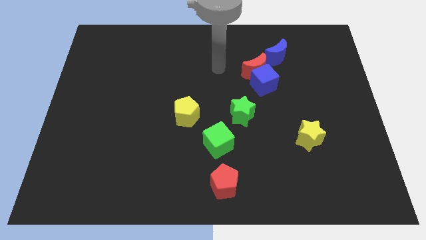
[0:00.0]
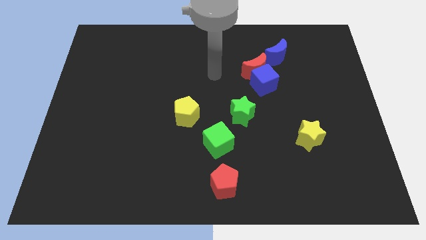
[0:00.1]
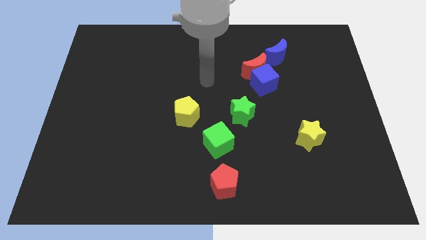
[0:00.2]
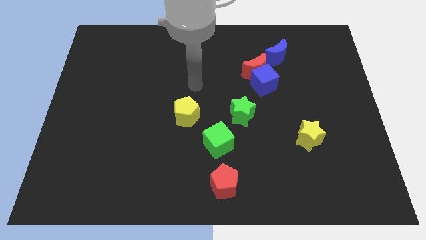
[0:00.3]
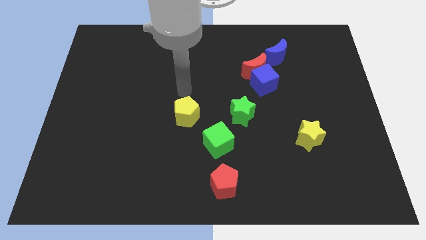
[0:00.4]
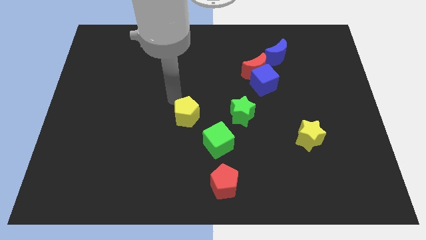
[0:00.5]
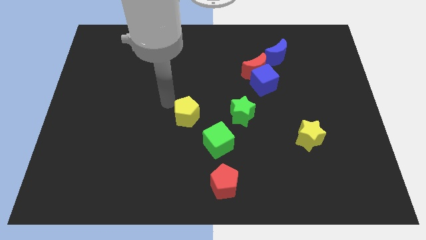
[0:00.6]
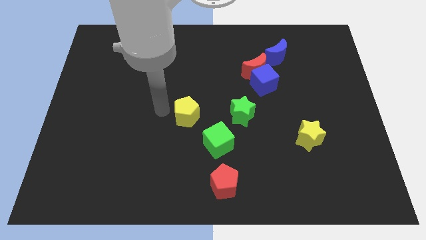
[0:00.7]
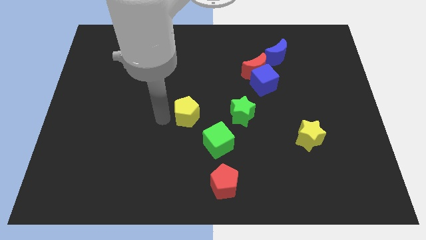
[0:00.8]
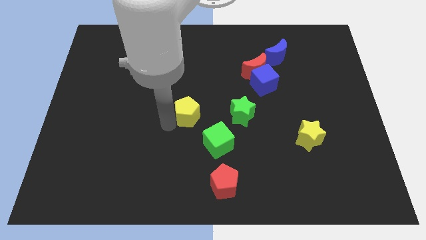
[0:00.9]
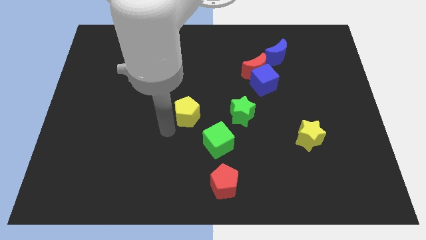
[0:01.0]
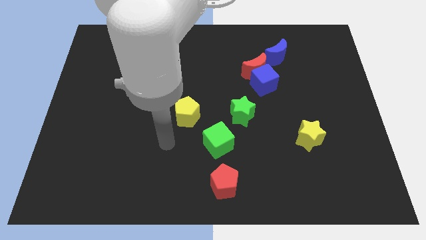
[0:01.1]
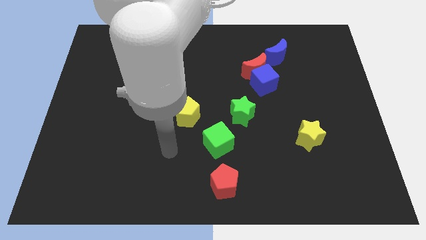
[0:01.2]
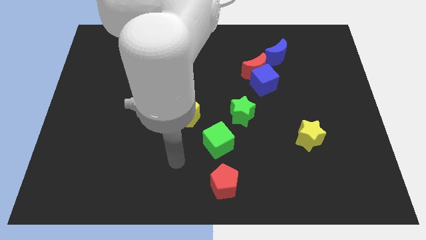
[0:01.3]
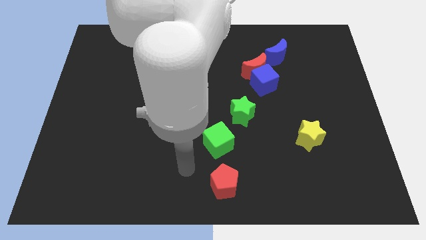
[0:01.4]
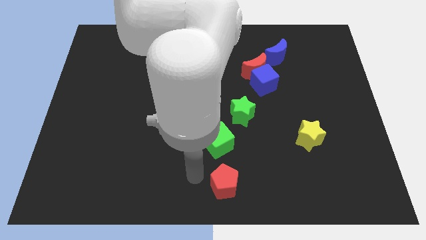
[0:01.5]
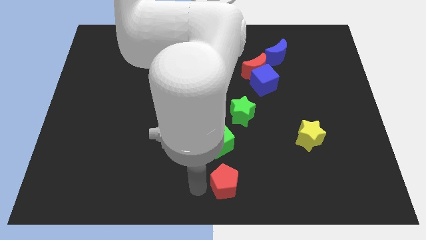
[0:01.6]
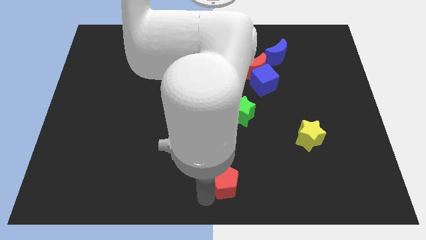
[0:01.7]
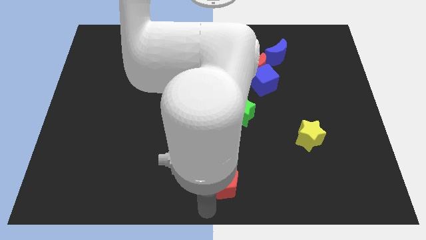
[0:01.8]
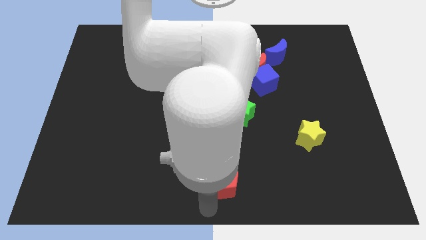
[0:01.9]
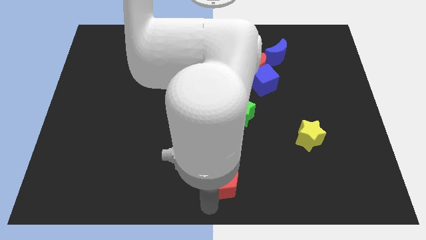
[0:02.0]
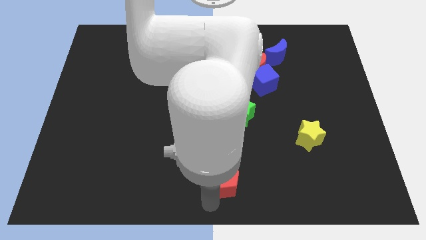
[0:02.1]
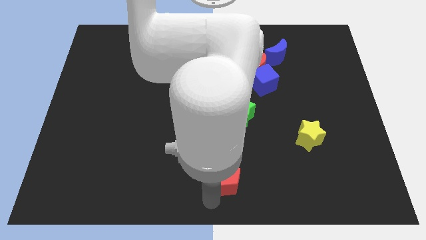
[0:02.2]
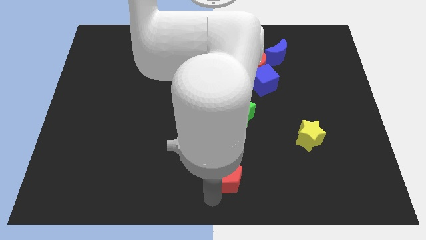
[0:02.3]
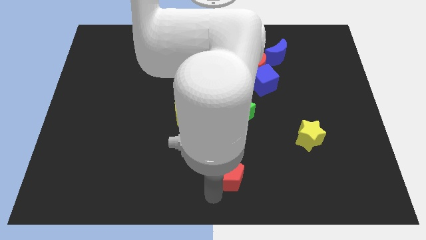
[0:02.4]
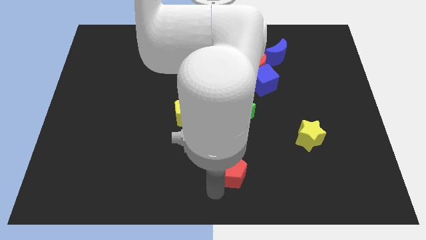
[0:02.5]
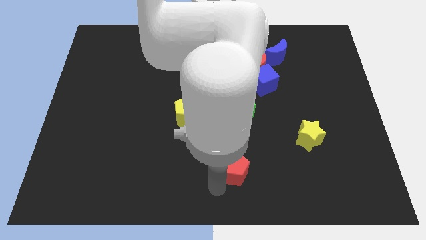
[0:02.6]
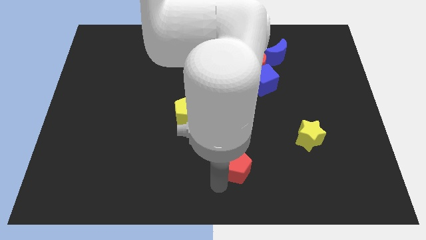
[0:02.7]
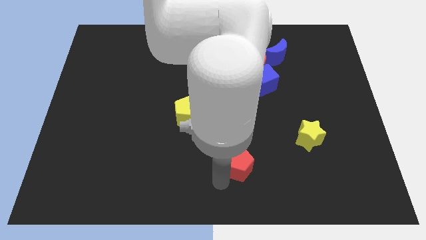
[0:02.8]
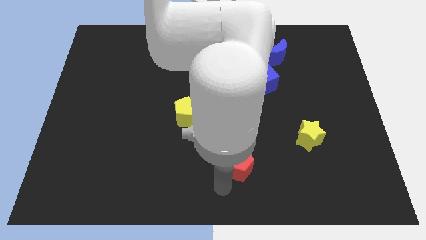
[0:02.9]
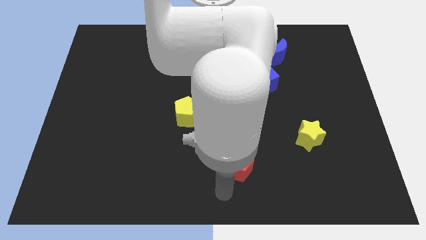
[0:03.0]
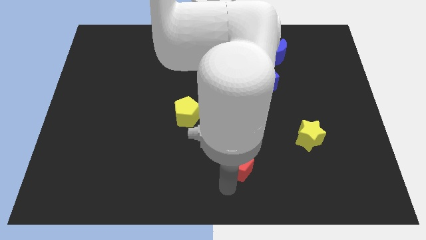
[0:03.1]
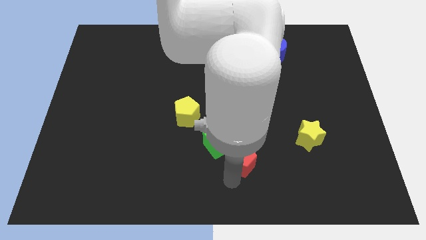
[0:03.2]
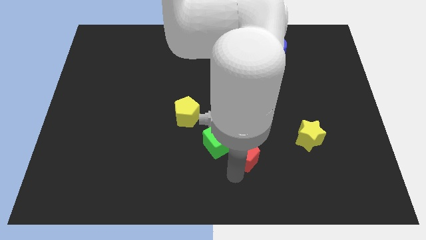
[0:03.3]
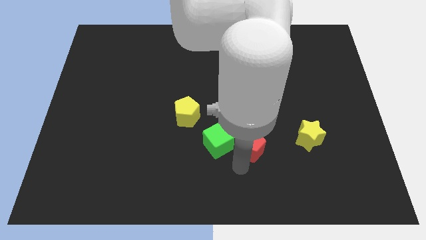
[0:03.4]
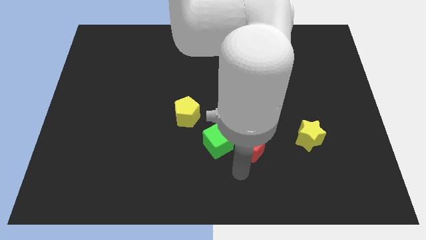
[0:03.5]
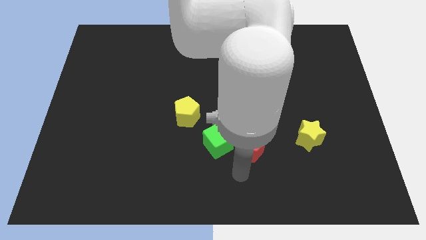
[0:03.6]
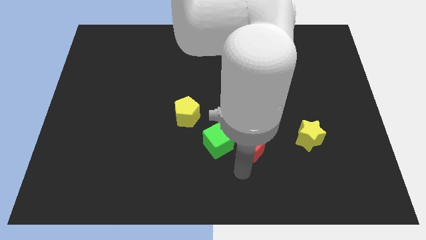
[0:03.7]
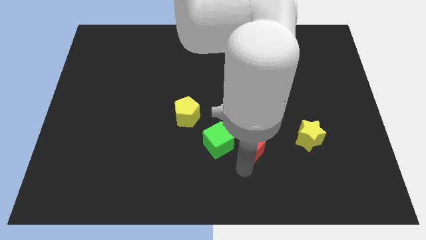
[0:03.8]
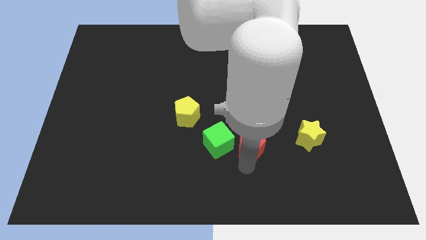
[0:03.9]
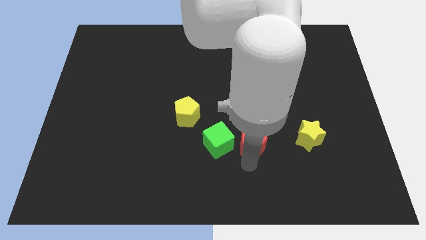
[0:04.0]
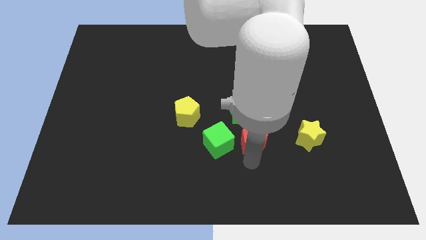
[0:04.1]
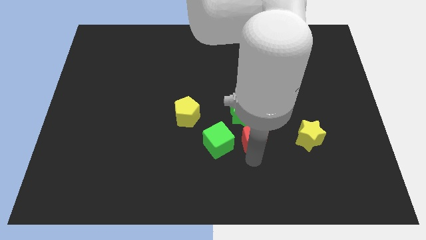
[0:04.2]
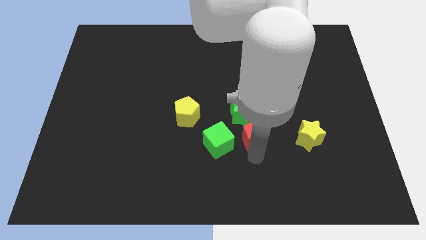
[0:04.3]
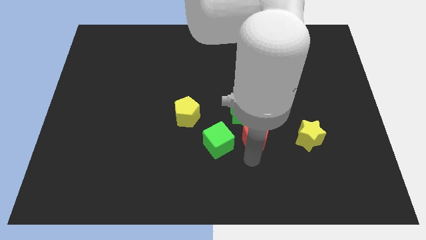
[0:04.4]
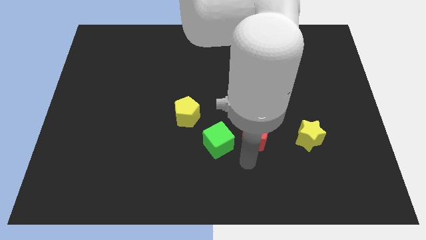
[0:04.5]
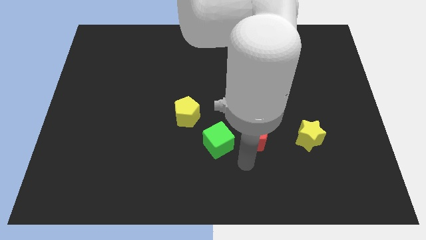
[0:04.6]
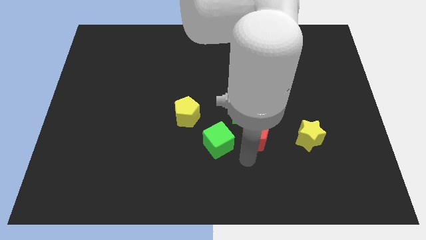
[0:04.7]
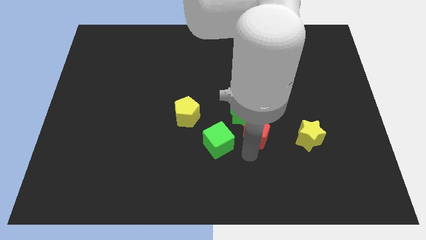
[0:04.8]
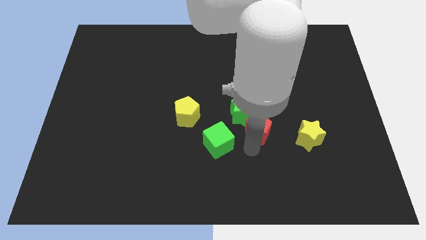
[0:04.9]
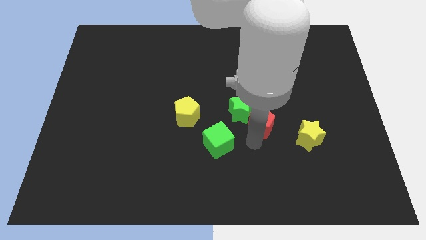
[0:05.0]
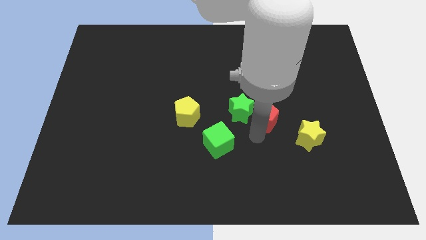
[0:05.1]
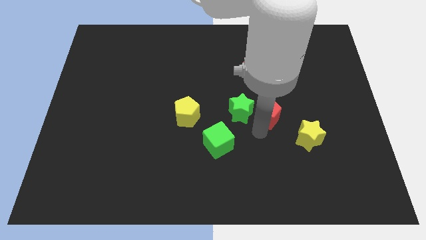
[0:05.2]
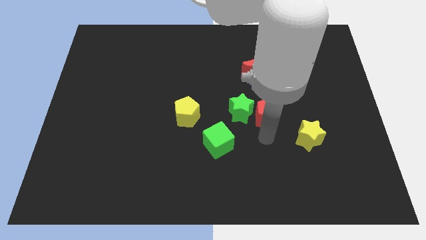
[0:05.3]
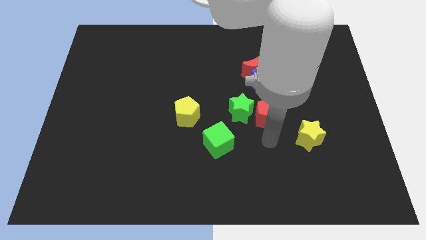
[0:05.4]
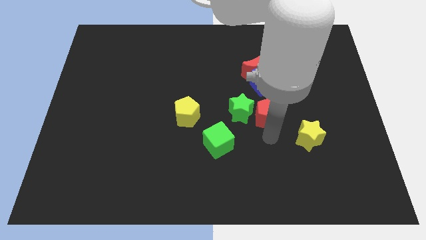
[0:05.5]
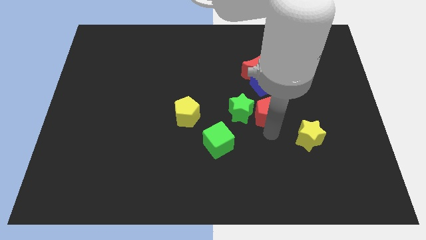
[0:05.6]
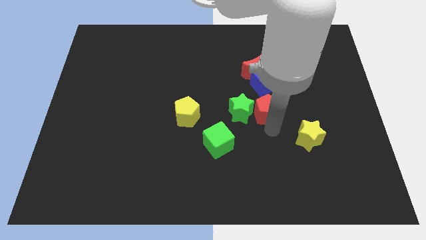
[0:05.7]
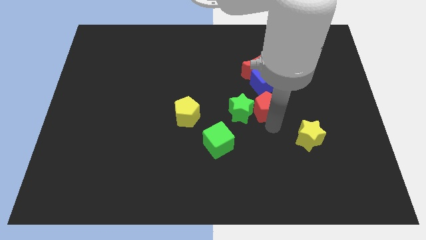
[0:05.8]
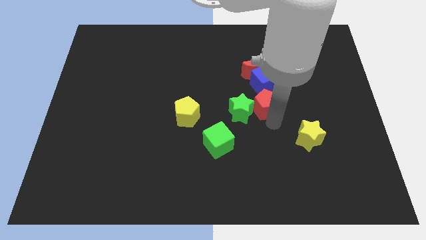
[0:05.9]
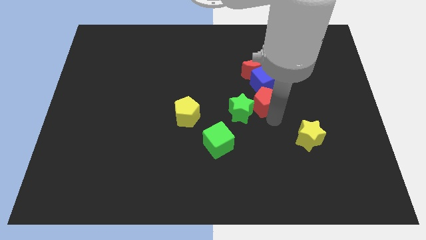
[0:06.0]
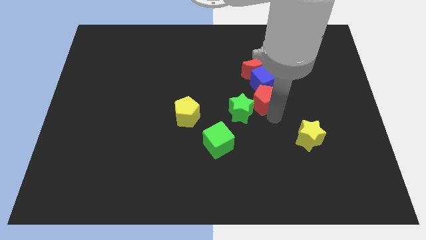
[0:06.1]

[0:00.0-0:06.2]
put the red pentagon towards the blue cube
